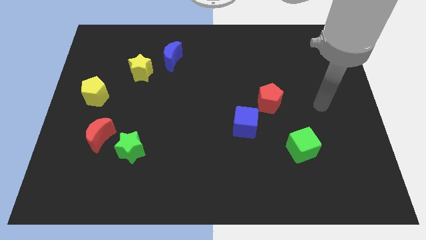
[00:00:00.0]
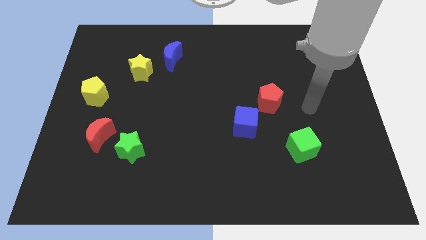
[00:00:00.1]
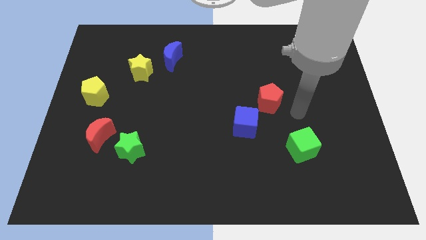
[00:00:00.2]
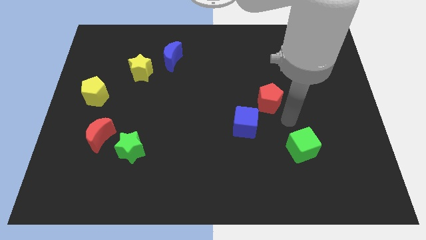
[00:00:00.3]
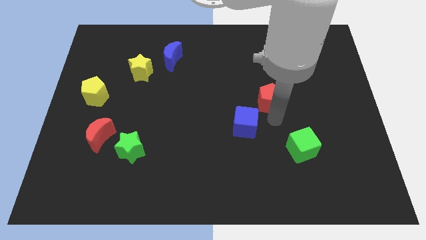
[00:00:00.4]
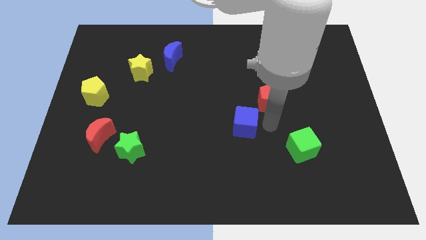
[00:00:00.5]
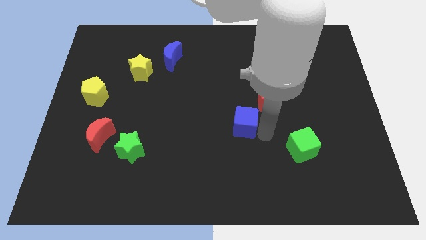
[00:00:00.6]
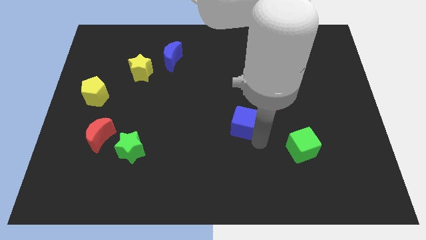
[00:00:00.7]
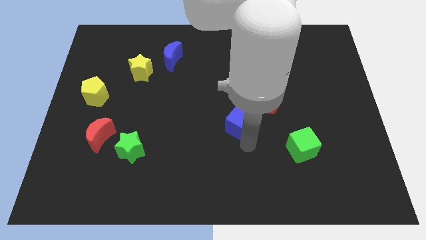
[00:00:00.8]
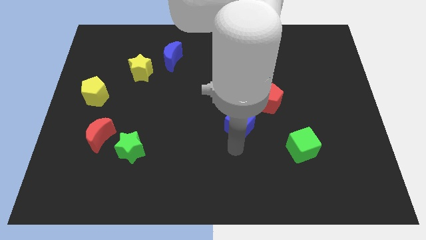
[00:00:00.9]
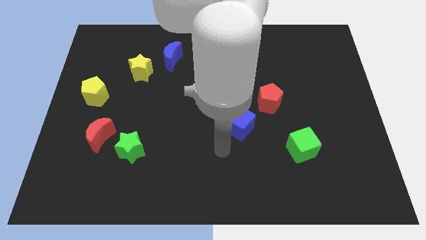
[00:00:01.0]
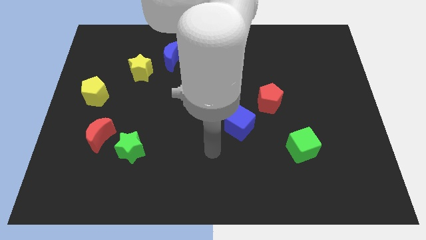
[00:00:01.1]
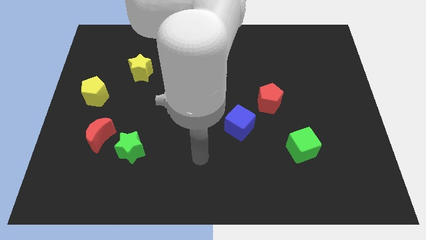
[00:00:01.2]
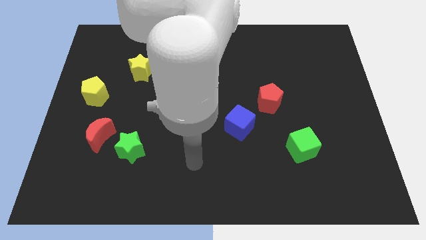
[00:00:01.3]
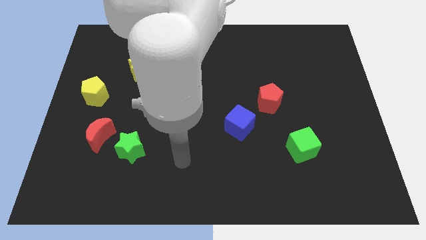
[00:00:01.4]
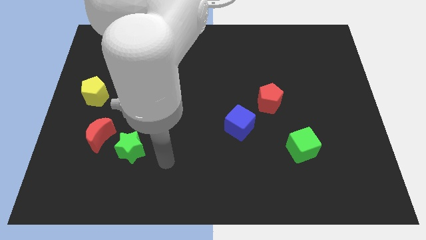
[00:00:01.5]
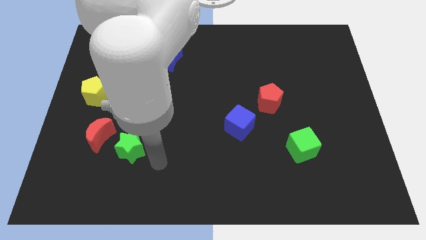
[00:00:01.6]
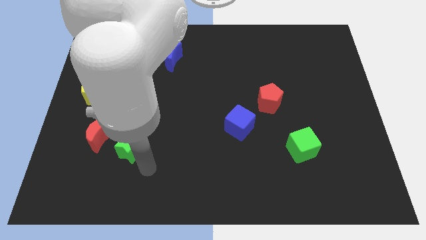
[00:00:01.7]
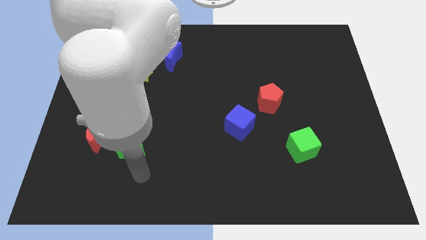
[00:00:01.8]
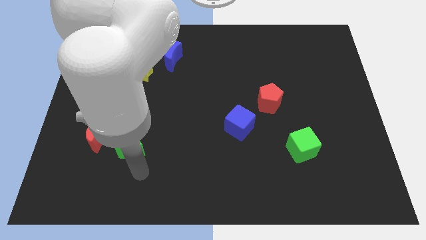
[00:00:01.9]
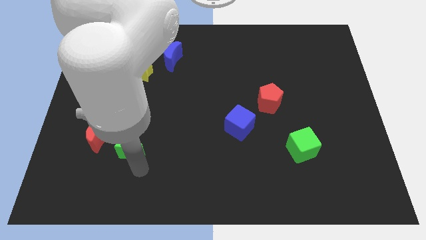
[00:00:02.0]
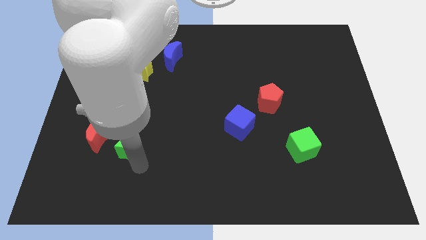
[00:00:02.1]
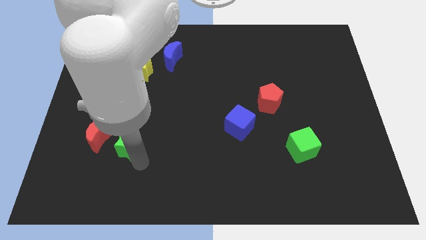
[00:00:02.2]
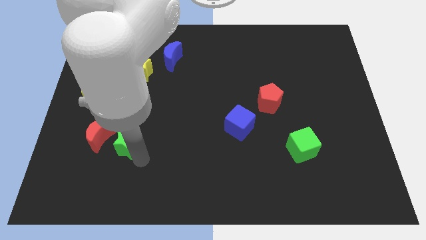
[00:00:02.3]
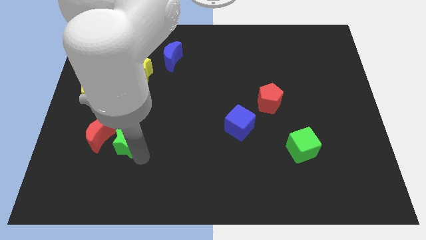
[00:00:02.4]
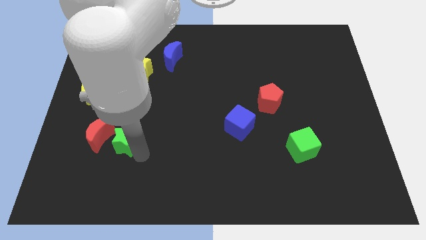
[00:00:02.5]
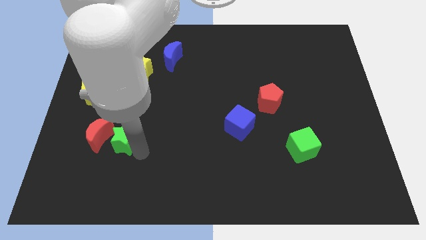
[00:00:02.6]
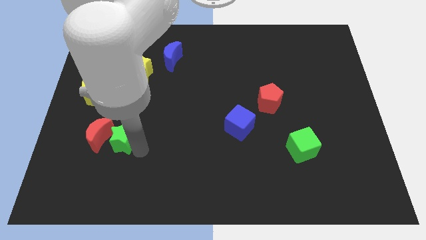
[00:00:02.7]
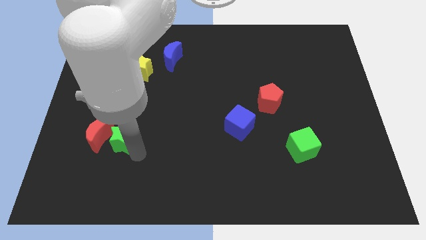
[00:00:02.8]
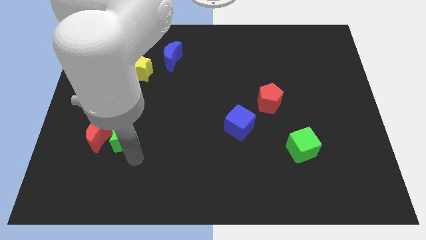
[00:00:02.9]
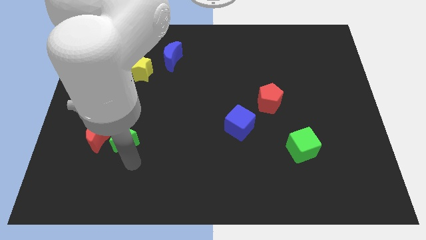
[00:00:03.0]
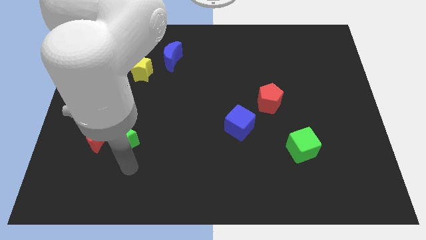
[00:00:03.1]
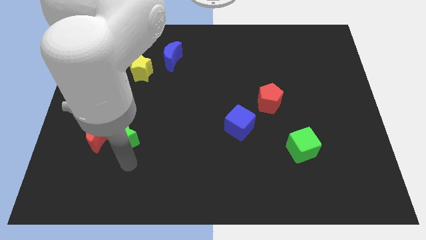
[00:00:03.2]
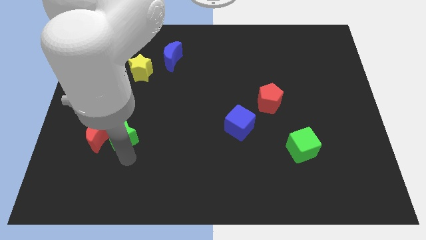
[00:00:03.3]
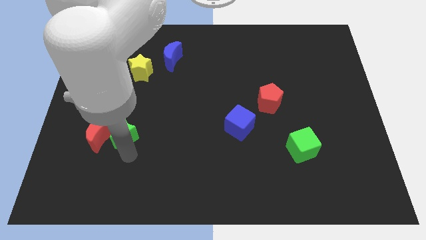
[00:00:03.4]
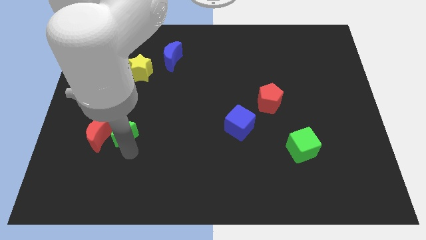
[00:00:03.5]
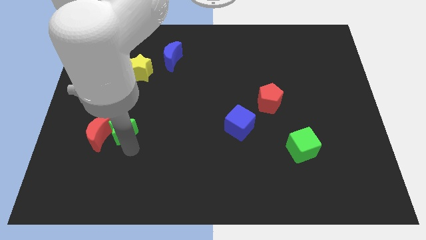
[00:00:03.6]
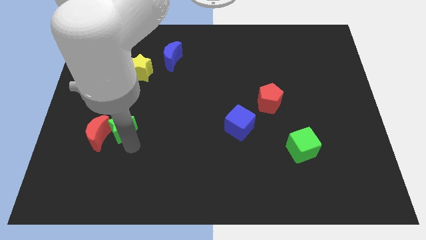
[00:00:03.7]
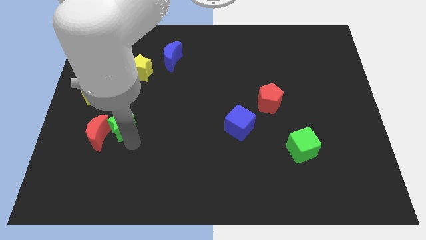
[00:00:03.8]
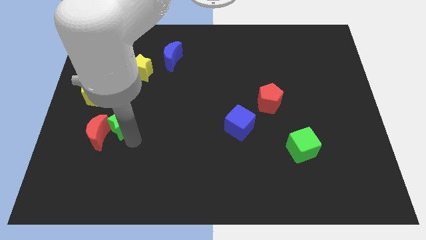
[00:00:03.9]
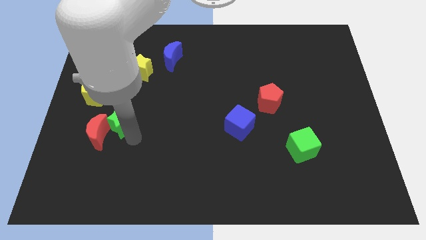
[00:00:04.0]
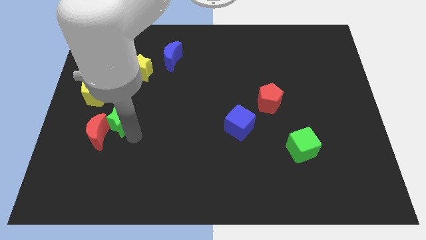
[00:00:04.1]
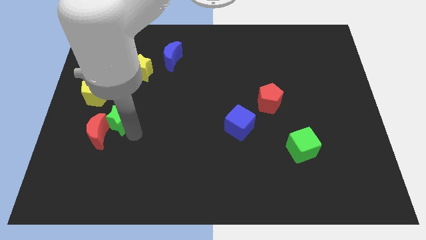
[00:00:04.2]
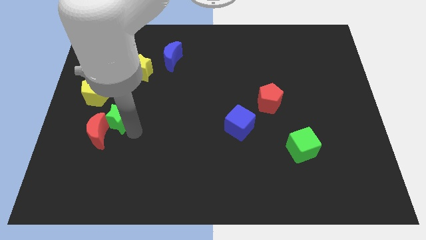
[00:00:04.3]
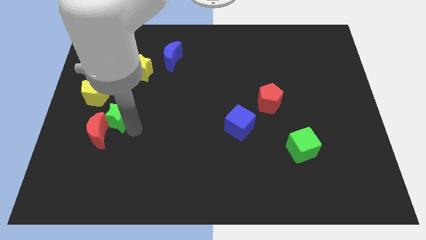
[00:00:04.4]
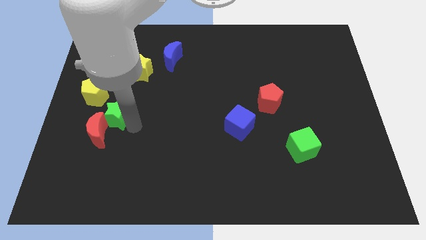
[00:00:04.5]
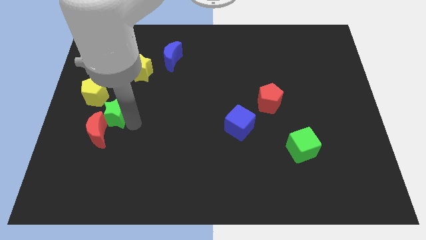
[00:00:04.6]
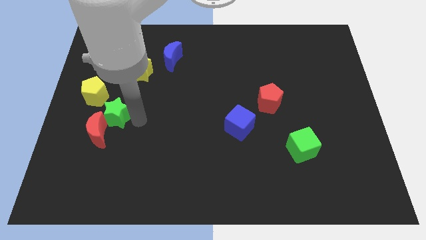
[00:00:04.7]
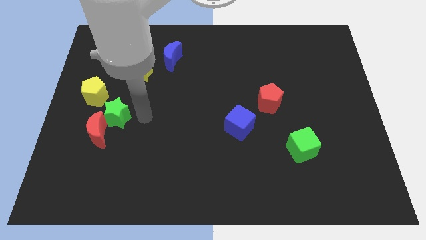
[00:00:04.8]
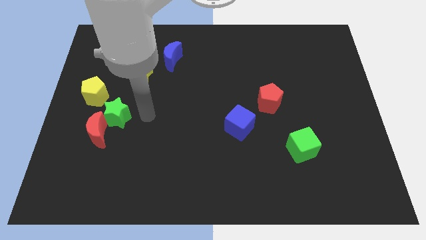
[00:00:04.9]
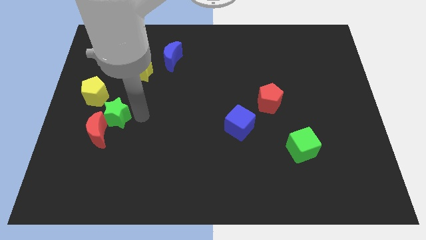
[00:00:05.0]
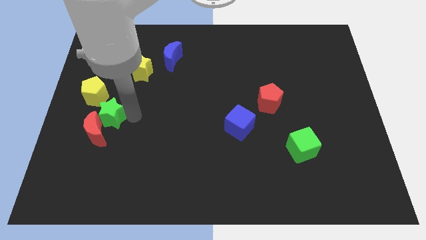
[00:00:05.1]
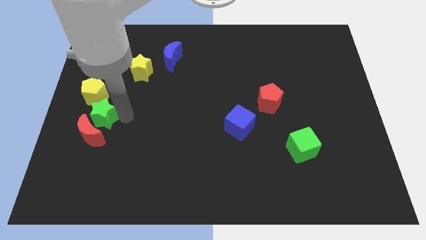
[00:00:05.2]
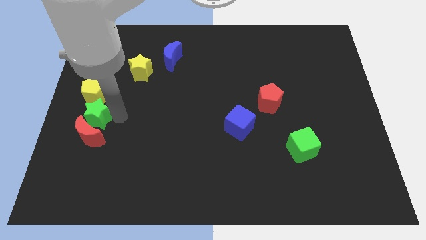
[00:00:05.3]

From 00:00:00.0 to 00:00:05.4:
push the green star to the left side of the board
